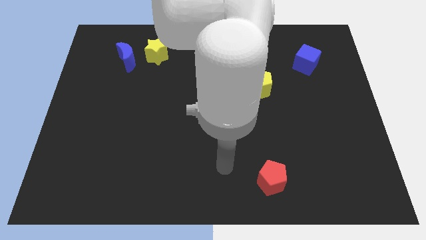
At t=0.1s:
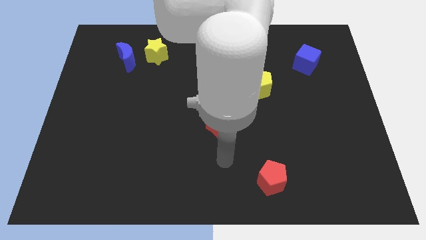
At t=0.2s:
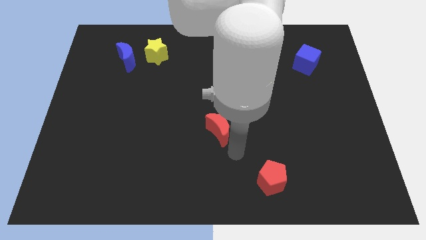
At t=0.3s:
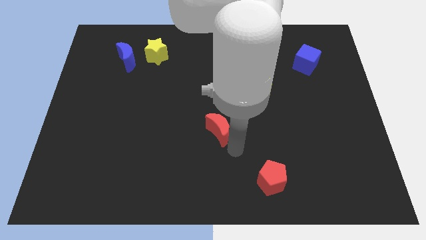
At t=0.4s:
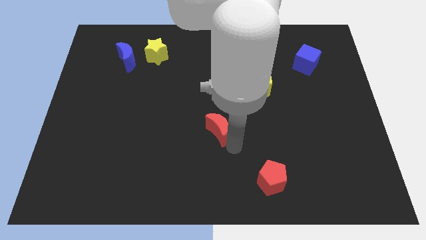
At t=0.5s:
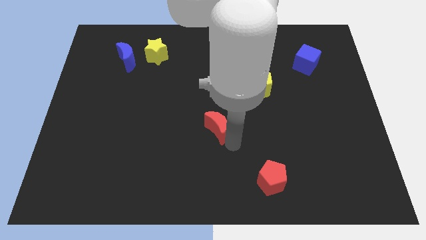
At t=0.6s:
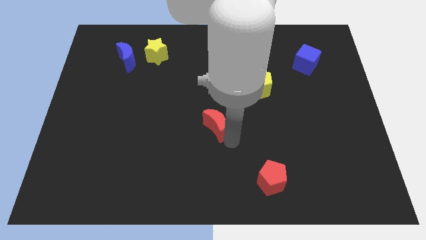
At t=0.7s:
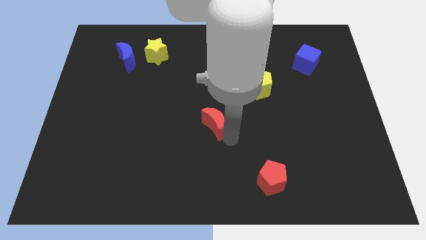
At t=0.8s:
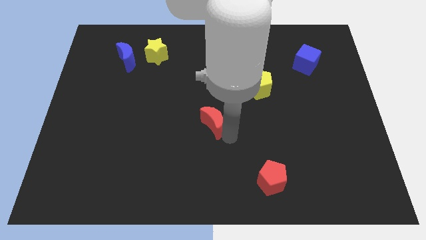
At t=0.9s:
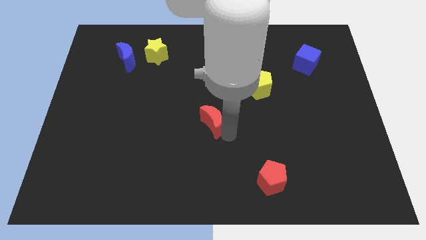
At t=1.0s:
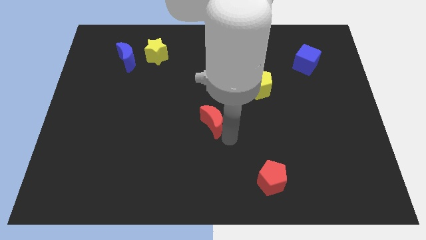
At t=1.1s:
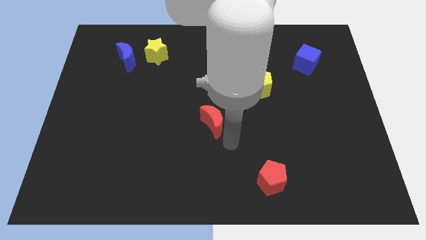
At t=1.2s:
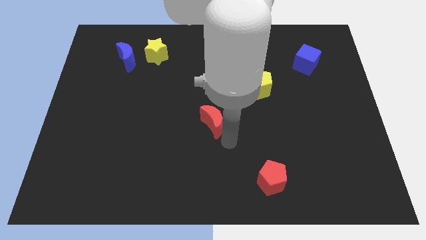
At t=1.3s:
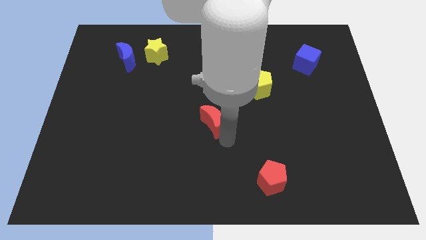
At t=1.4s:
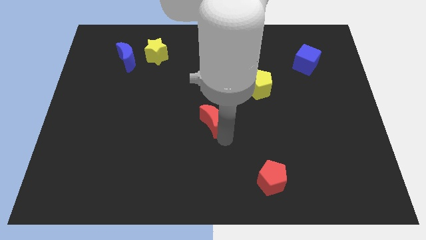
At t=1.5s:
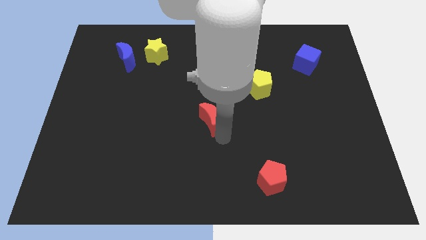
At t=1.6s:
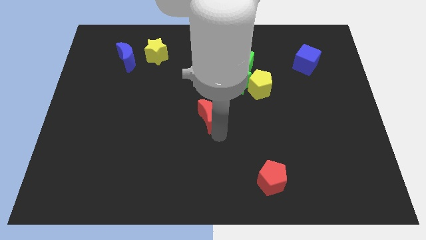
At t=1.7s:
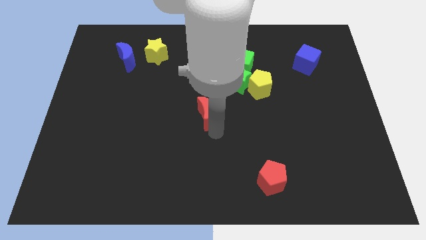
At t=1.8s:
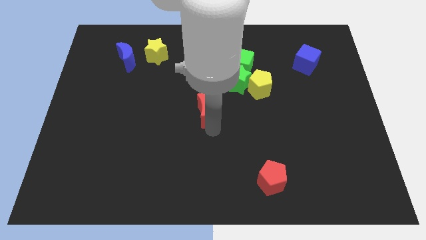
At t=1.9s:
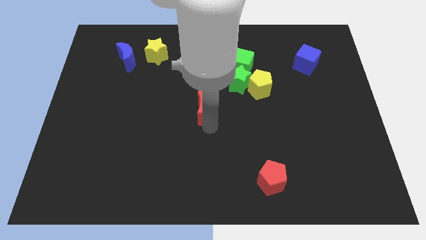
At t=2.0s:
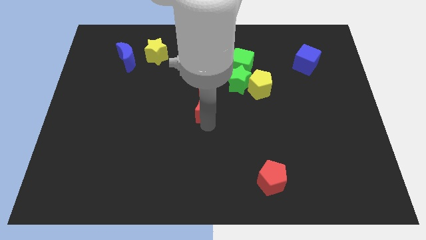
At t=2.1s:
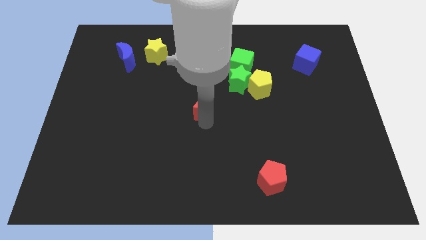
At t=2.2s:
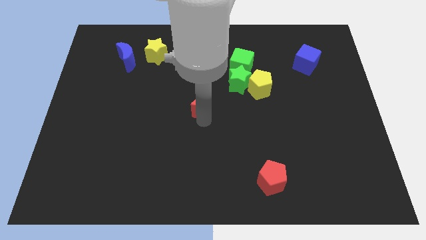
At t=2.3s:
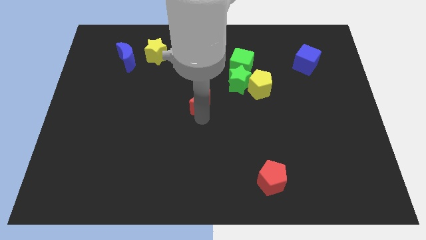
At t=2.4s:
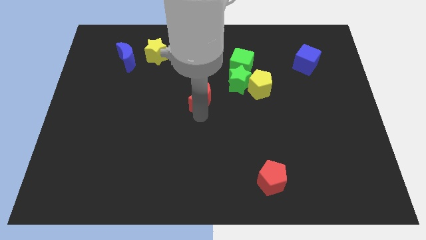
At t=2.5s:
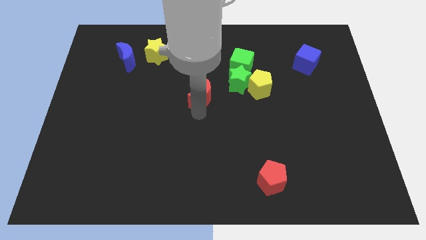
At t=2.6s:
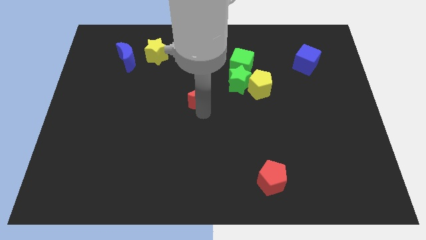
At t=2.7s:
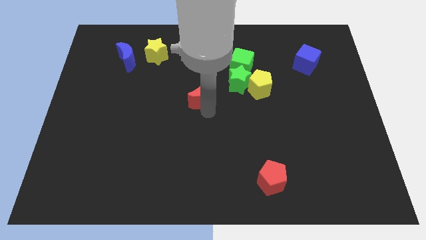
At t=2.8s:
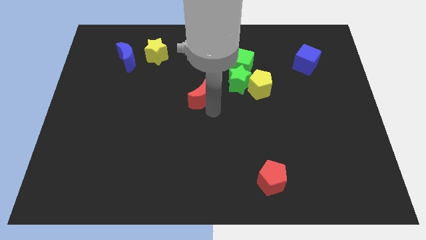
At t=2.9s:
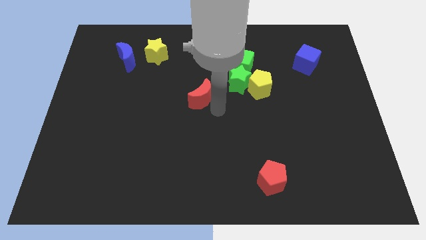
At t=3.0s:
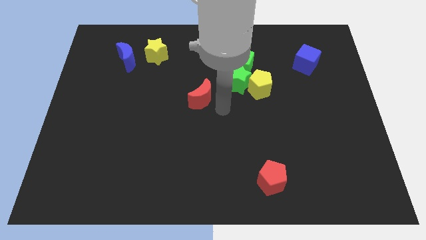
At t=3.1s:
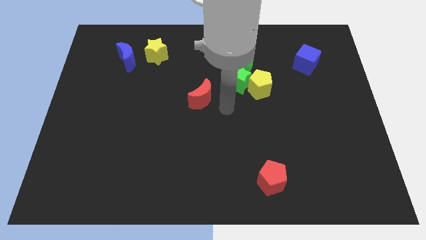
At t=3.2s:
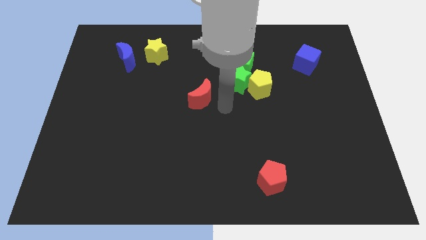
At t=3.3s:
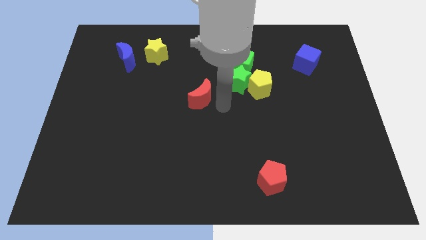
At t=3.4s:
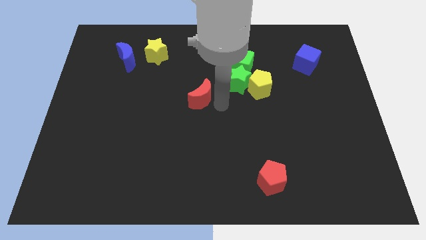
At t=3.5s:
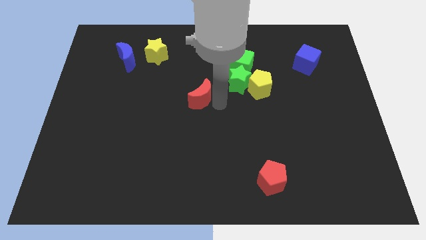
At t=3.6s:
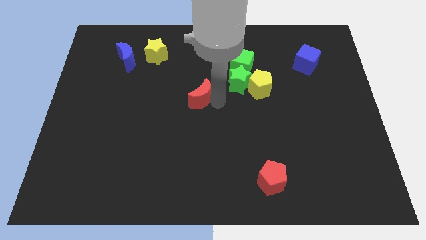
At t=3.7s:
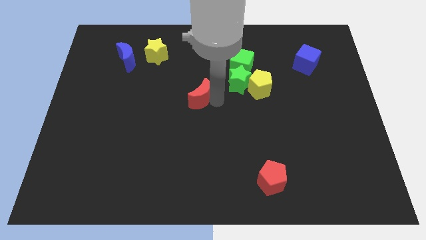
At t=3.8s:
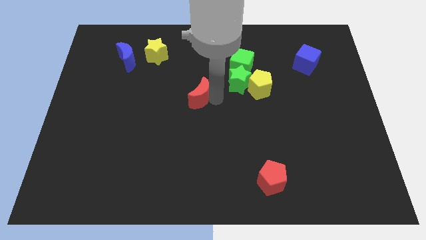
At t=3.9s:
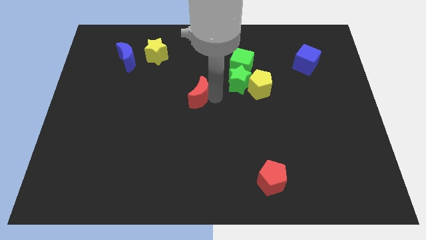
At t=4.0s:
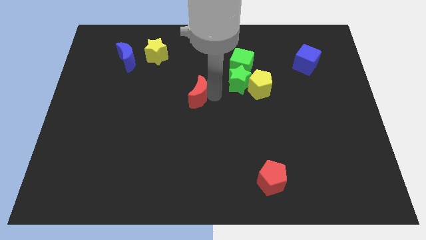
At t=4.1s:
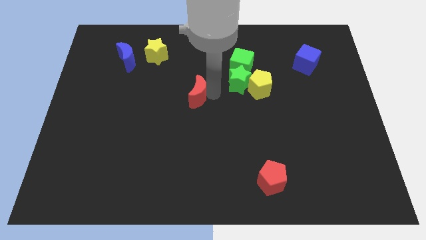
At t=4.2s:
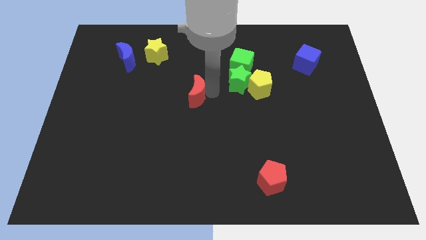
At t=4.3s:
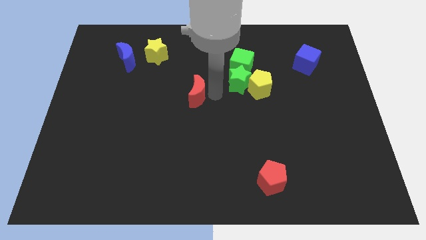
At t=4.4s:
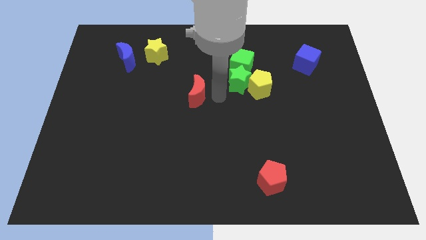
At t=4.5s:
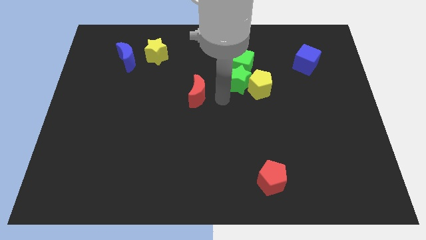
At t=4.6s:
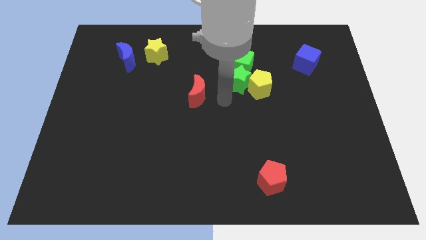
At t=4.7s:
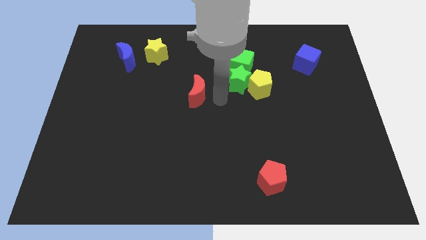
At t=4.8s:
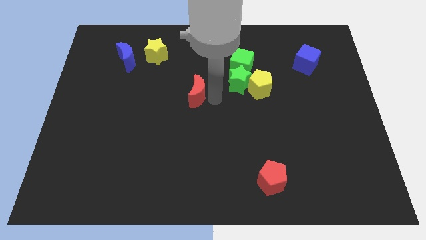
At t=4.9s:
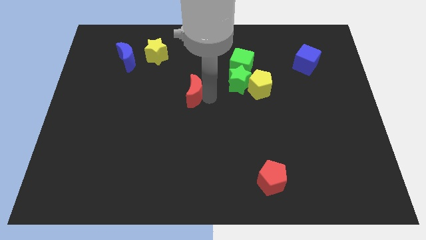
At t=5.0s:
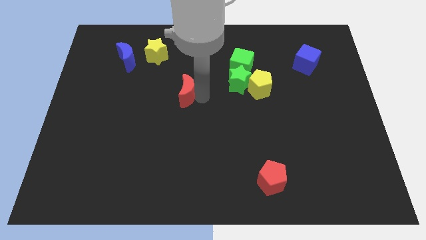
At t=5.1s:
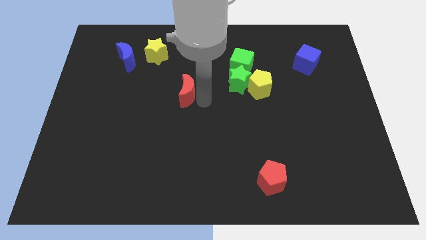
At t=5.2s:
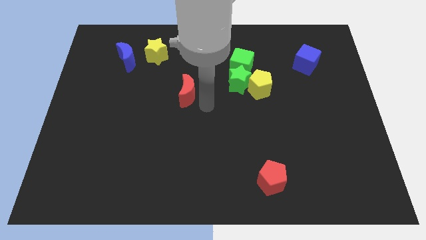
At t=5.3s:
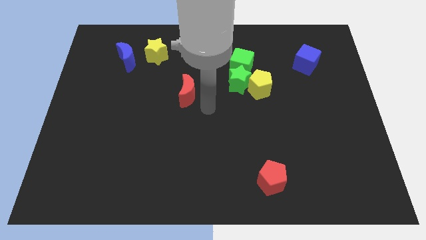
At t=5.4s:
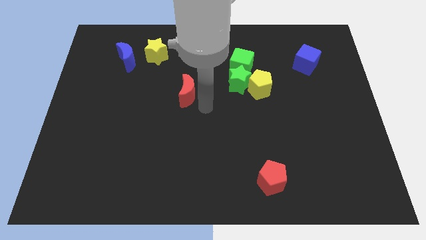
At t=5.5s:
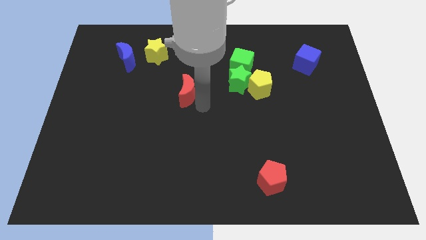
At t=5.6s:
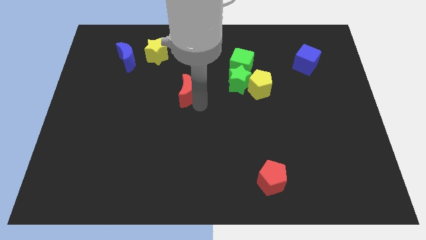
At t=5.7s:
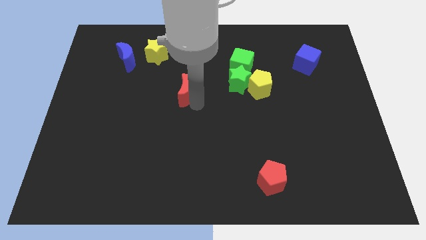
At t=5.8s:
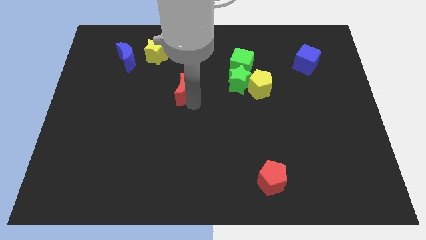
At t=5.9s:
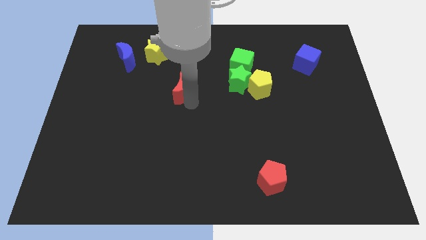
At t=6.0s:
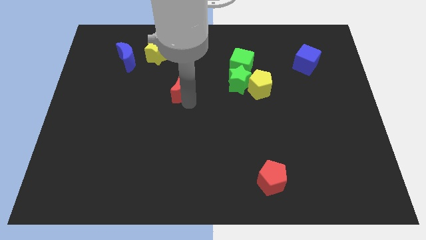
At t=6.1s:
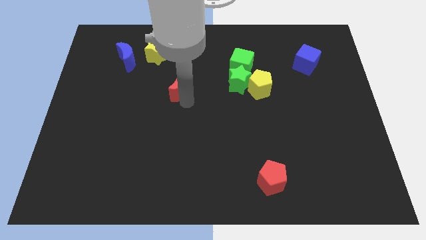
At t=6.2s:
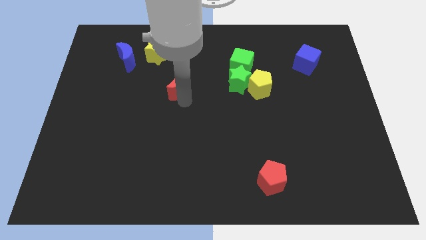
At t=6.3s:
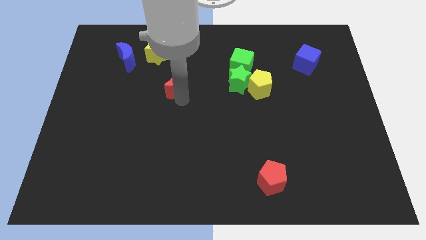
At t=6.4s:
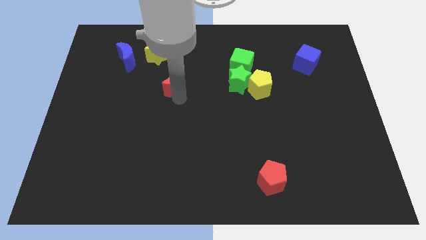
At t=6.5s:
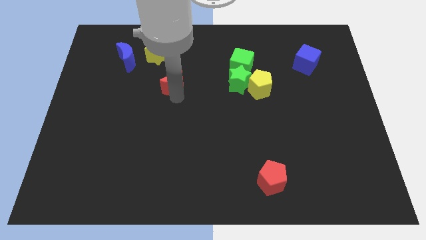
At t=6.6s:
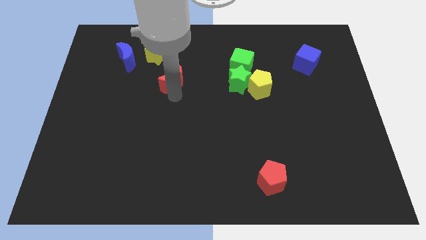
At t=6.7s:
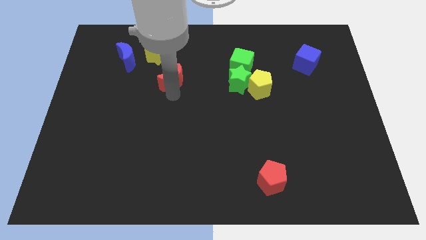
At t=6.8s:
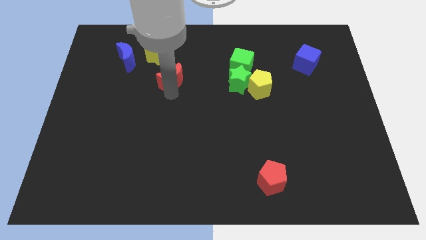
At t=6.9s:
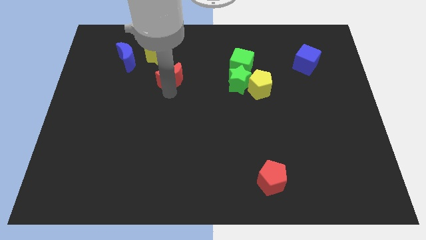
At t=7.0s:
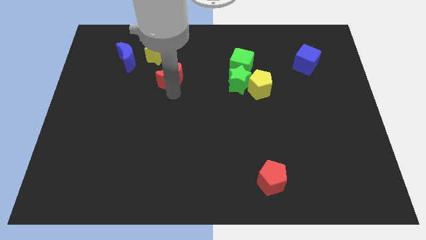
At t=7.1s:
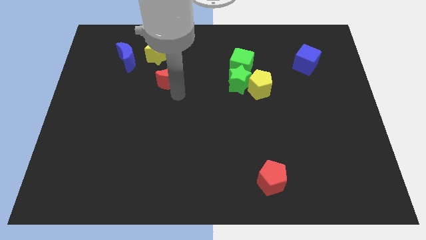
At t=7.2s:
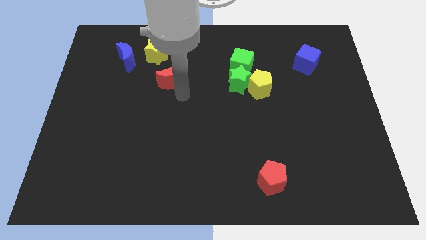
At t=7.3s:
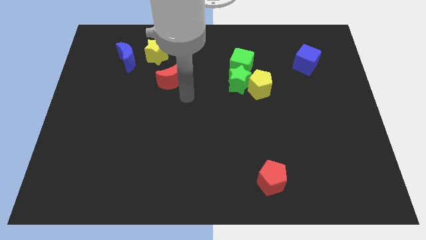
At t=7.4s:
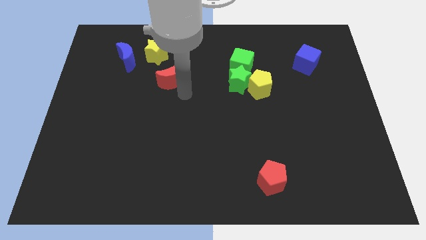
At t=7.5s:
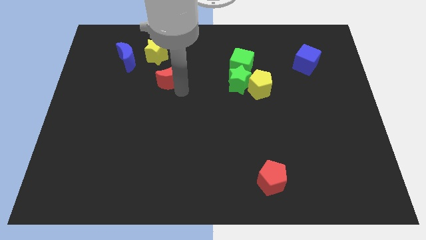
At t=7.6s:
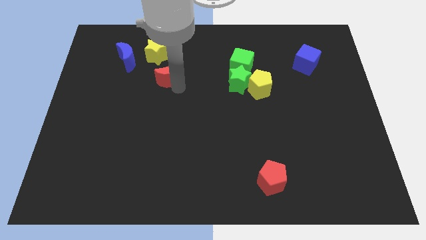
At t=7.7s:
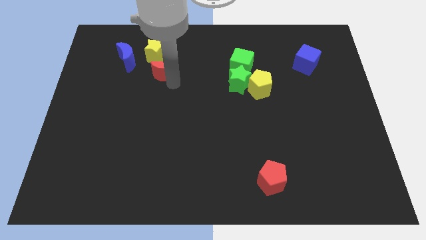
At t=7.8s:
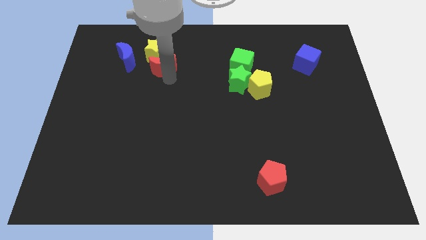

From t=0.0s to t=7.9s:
push the red moon to the yellow star
